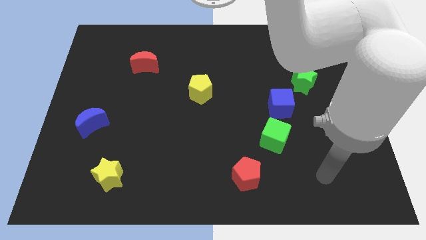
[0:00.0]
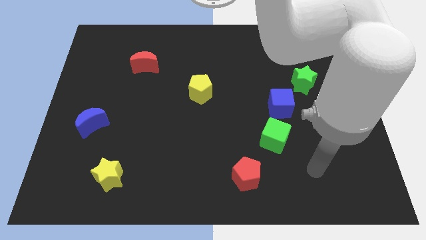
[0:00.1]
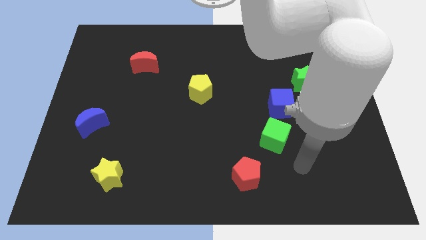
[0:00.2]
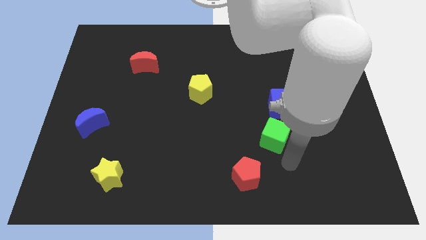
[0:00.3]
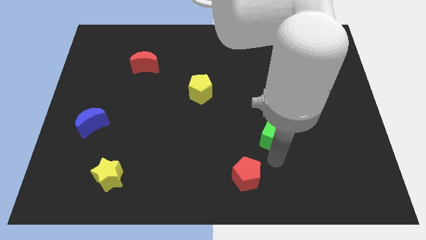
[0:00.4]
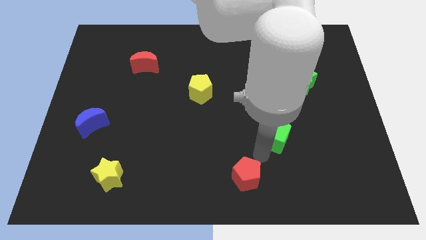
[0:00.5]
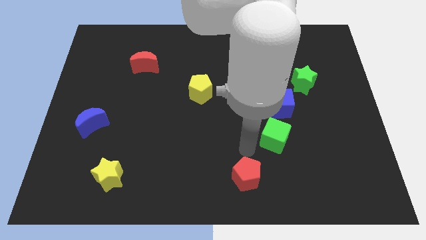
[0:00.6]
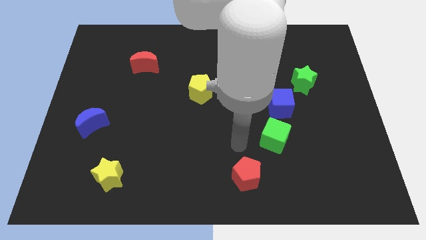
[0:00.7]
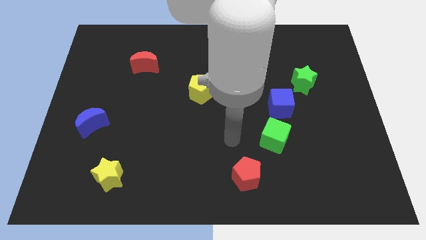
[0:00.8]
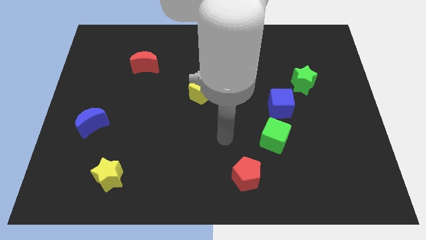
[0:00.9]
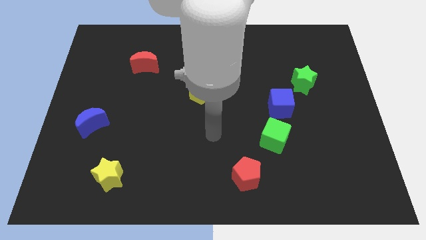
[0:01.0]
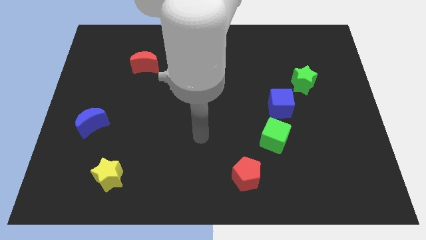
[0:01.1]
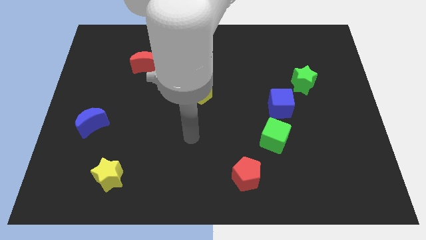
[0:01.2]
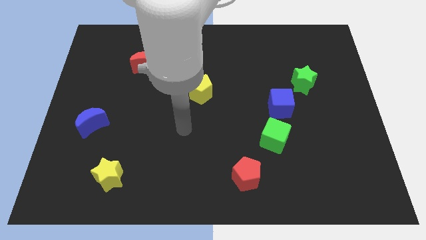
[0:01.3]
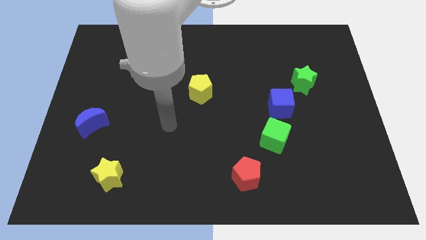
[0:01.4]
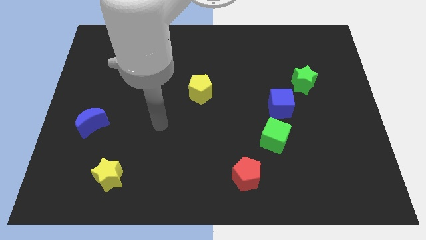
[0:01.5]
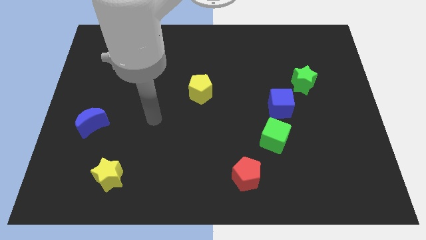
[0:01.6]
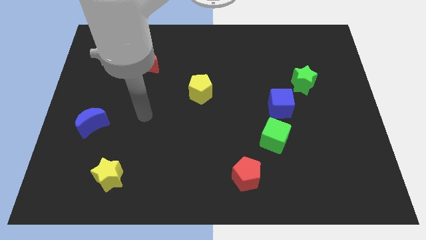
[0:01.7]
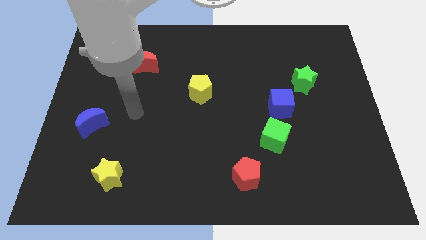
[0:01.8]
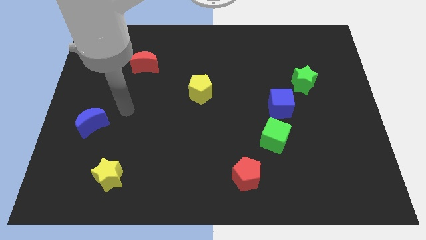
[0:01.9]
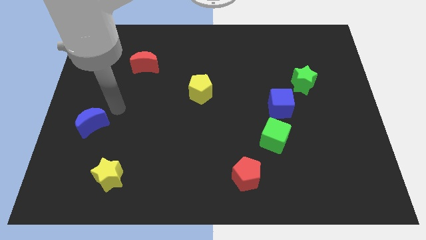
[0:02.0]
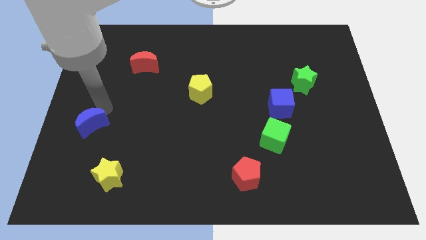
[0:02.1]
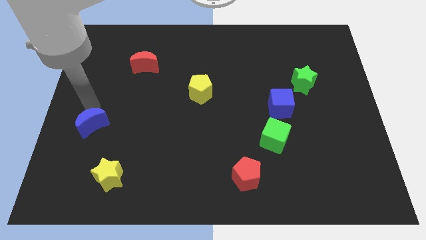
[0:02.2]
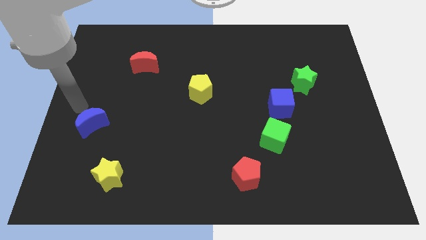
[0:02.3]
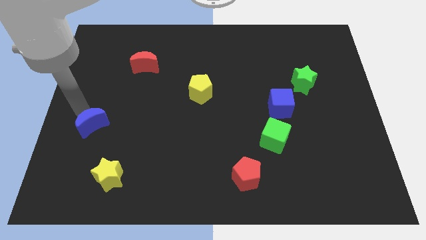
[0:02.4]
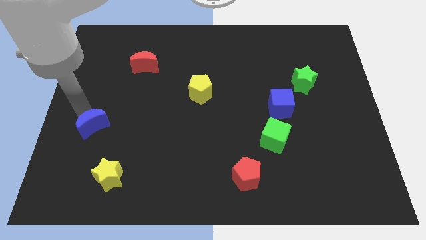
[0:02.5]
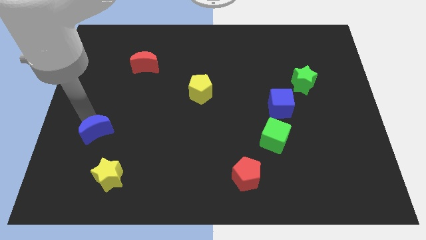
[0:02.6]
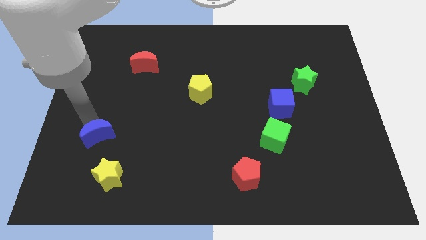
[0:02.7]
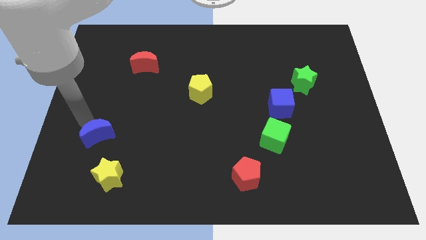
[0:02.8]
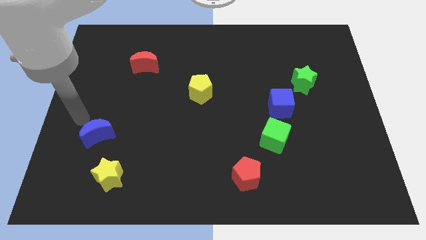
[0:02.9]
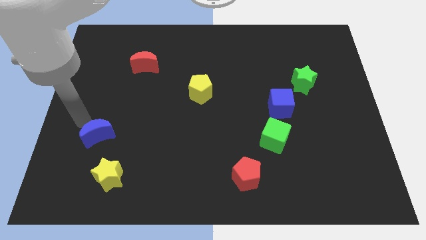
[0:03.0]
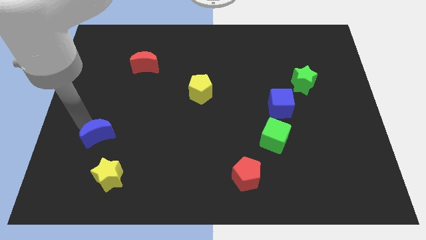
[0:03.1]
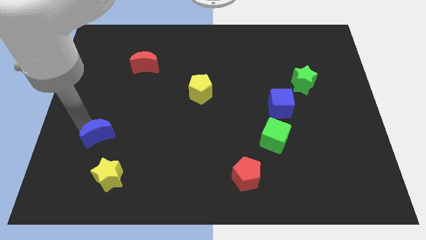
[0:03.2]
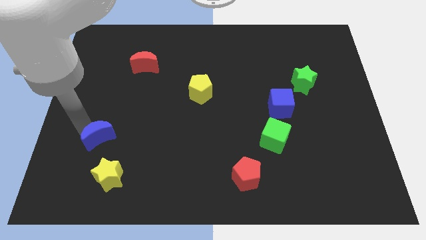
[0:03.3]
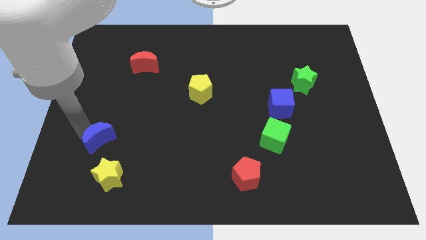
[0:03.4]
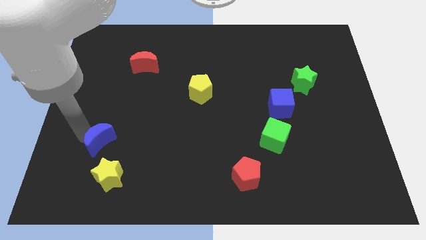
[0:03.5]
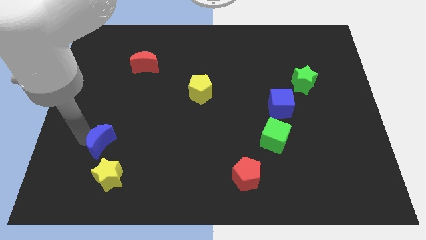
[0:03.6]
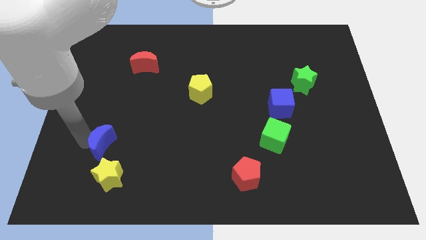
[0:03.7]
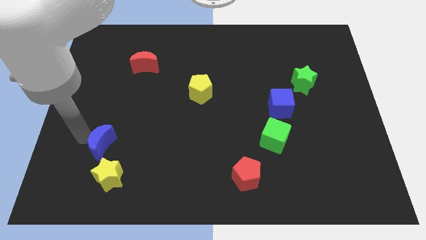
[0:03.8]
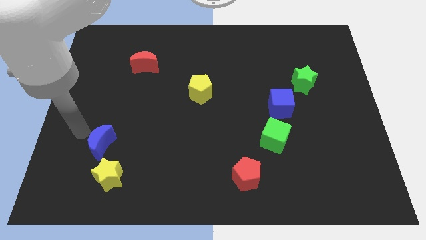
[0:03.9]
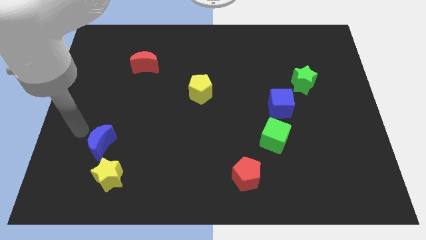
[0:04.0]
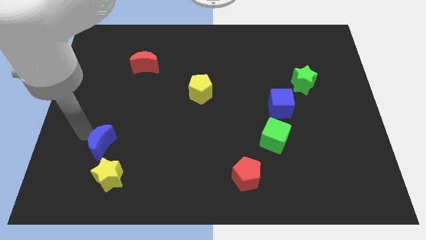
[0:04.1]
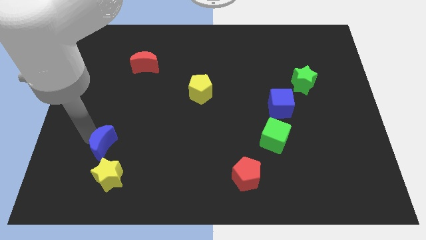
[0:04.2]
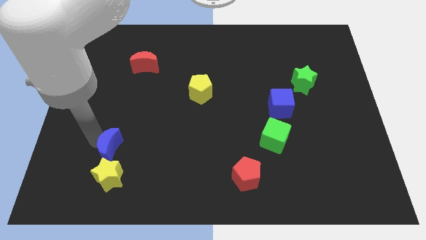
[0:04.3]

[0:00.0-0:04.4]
slide the blue moon somewhat down and to the right

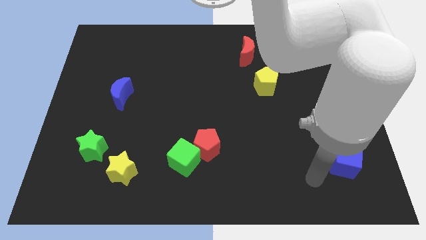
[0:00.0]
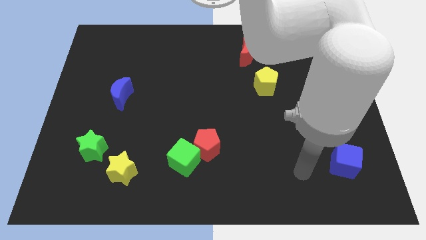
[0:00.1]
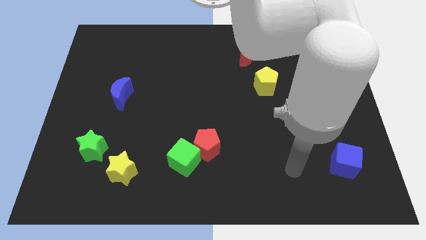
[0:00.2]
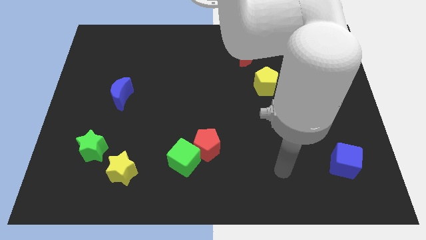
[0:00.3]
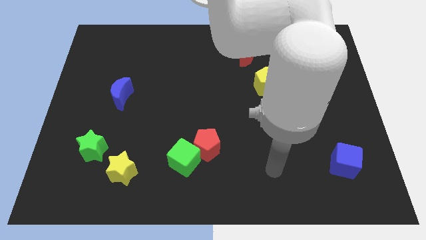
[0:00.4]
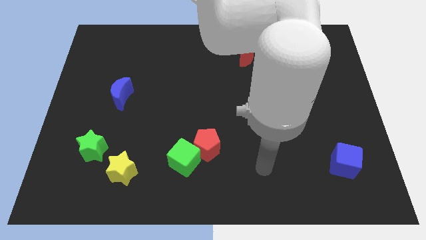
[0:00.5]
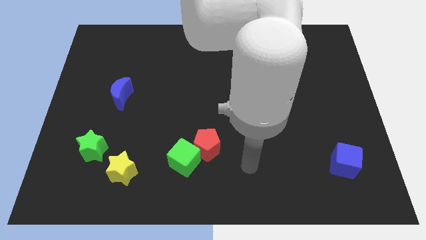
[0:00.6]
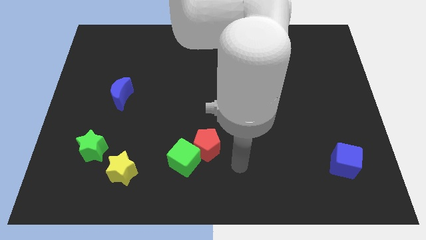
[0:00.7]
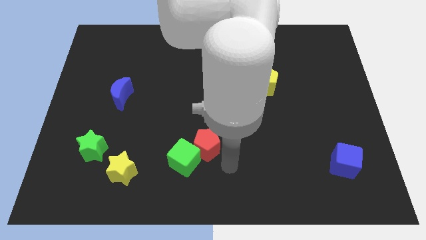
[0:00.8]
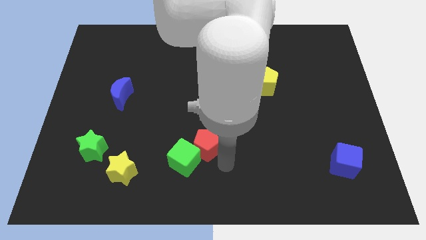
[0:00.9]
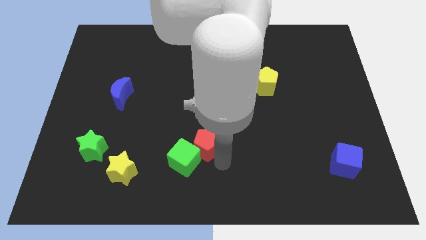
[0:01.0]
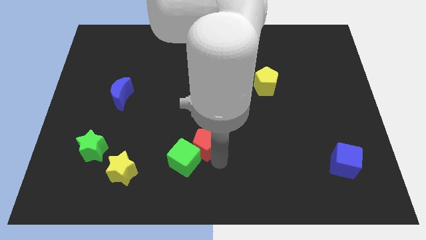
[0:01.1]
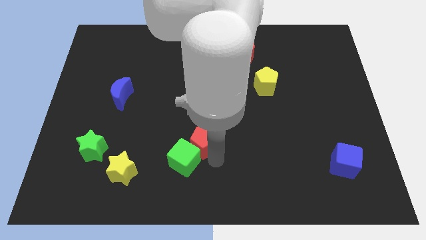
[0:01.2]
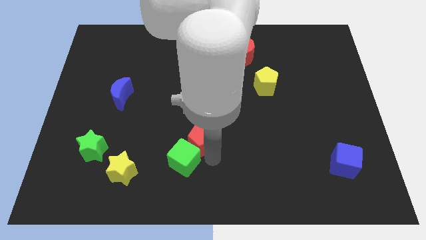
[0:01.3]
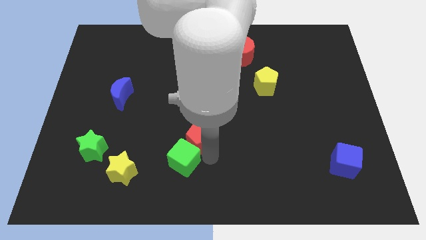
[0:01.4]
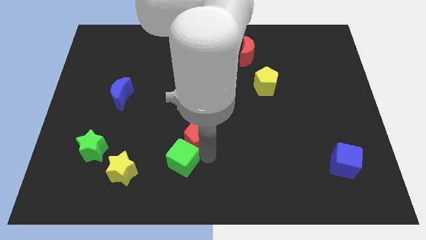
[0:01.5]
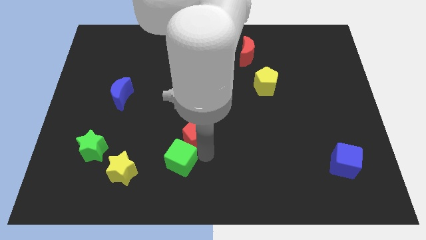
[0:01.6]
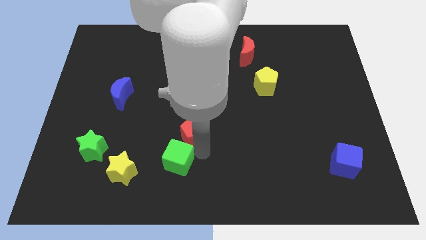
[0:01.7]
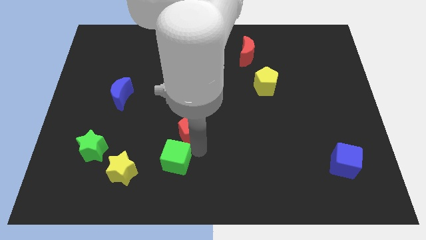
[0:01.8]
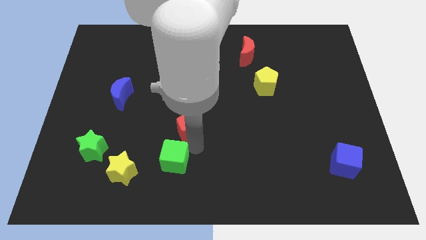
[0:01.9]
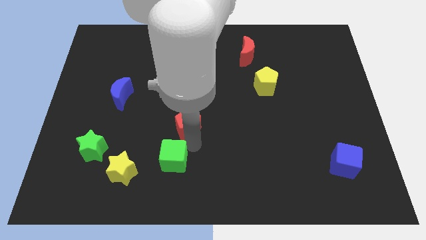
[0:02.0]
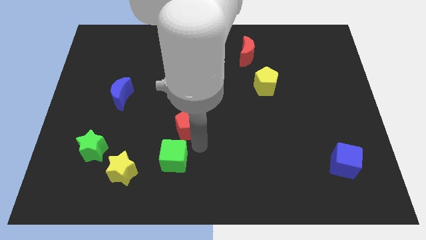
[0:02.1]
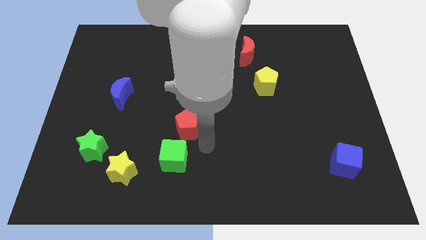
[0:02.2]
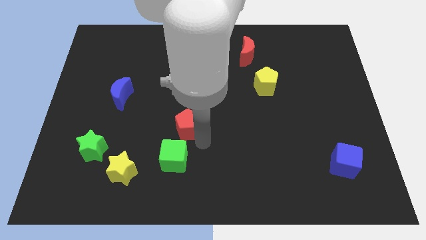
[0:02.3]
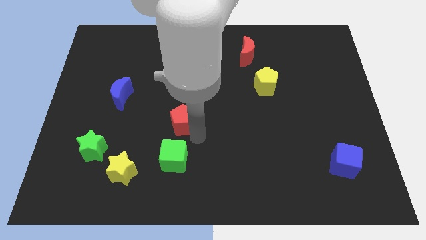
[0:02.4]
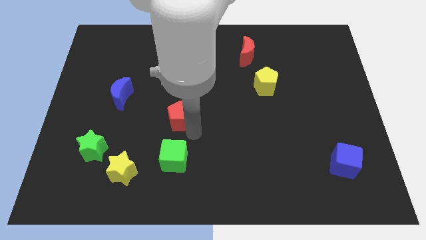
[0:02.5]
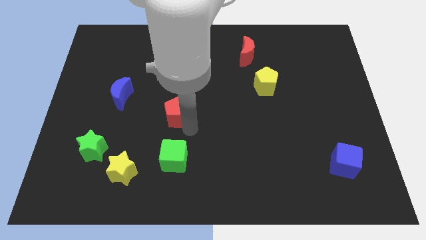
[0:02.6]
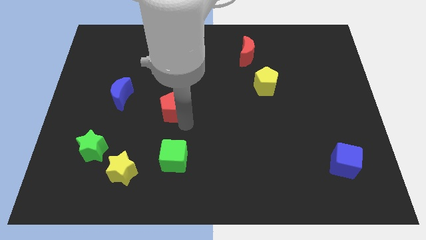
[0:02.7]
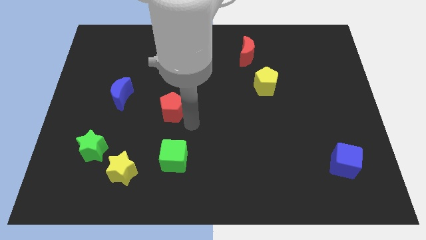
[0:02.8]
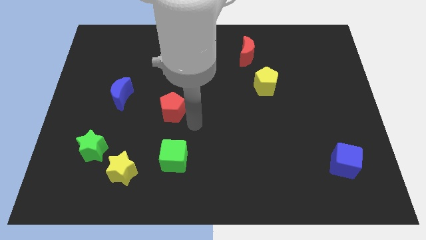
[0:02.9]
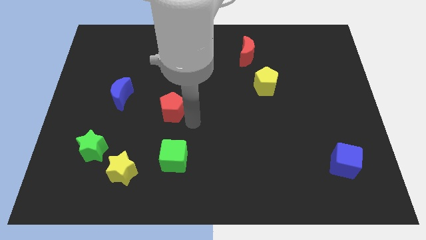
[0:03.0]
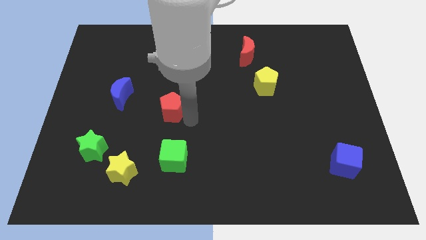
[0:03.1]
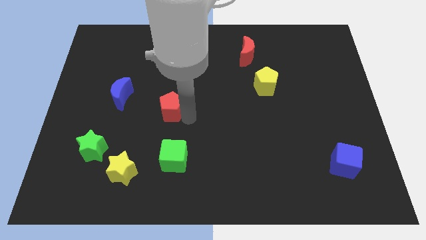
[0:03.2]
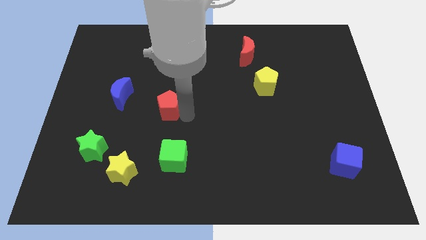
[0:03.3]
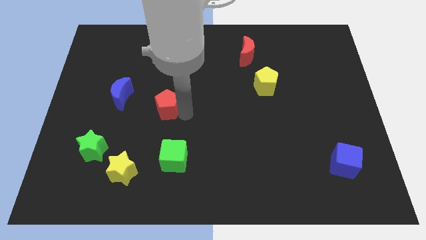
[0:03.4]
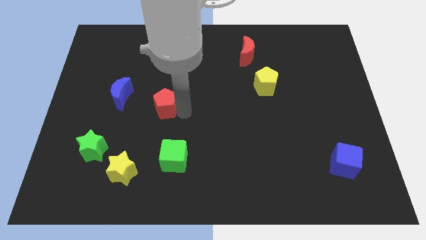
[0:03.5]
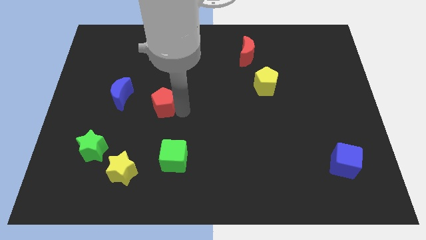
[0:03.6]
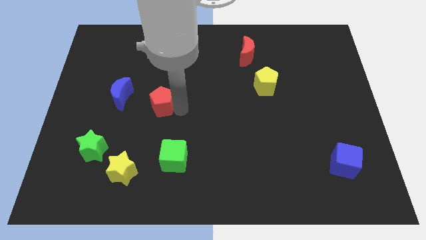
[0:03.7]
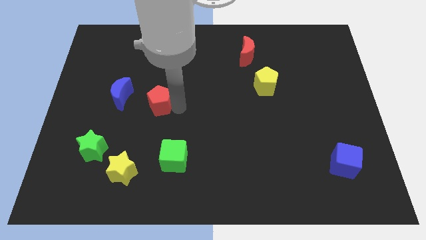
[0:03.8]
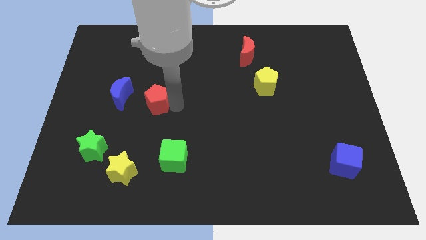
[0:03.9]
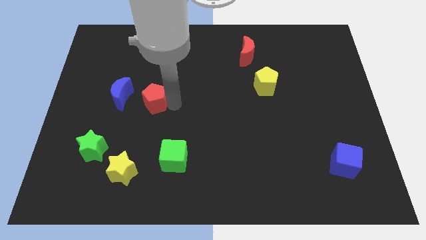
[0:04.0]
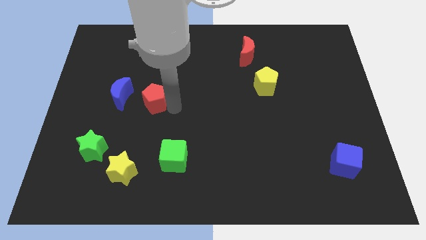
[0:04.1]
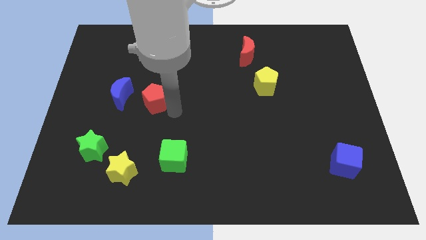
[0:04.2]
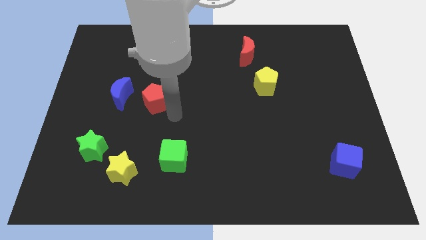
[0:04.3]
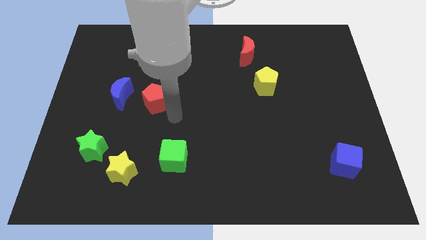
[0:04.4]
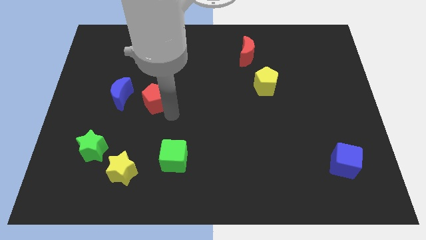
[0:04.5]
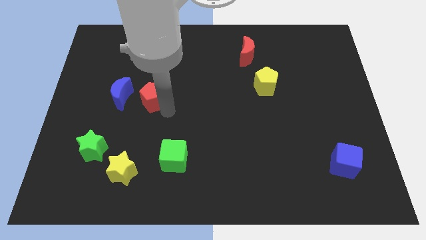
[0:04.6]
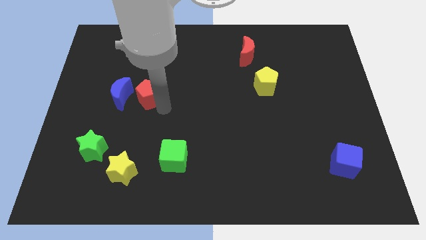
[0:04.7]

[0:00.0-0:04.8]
move the red pentagon up and then left
